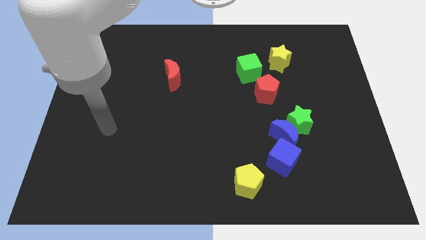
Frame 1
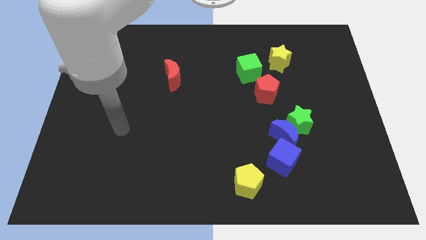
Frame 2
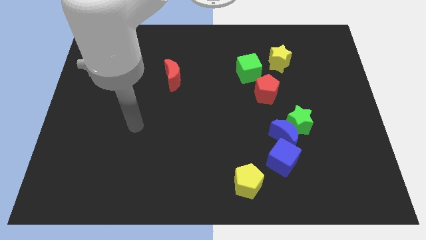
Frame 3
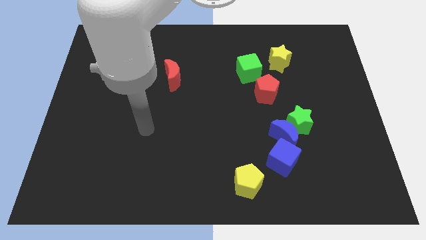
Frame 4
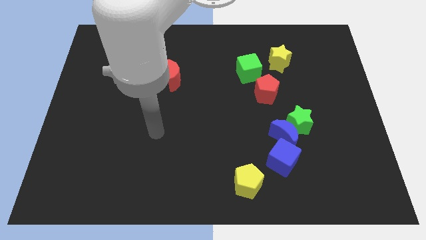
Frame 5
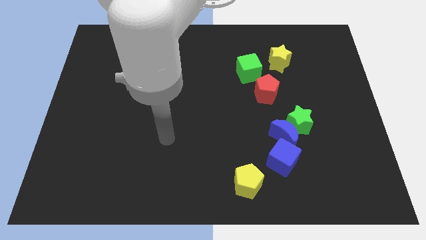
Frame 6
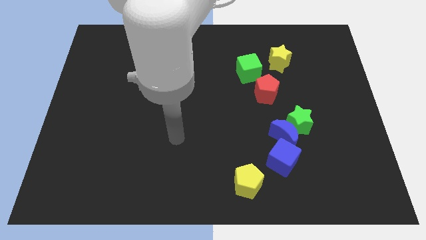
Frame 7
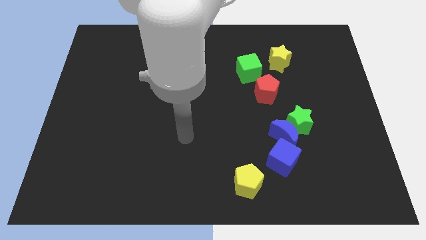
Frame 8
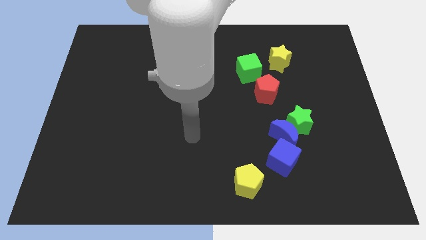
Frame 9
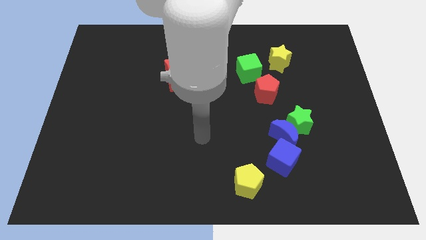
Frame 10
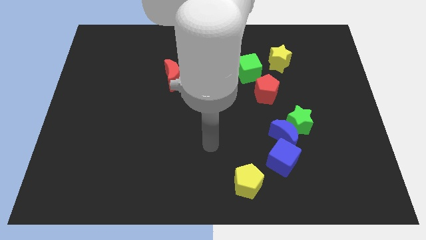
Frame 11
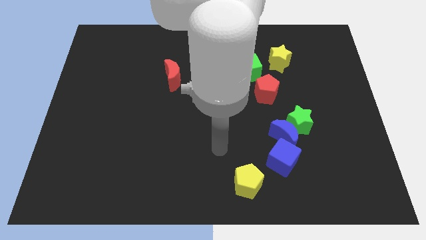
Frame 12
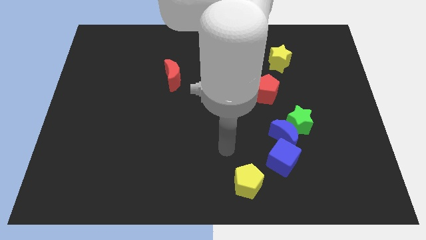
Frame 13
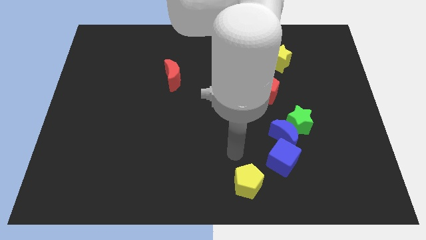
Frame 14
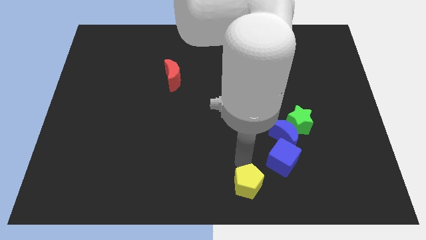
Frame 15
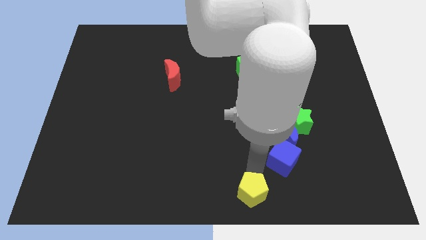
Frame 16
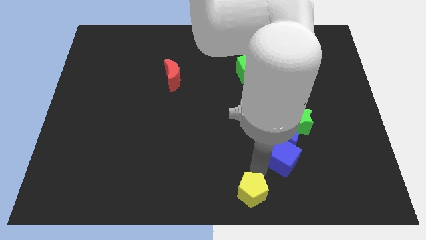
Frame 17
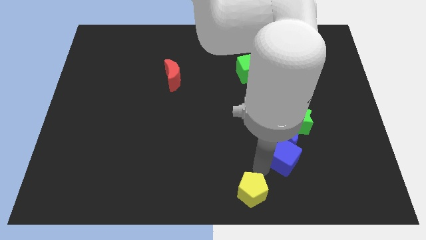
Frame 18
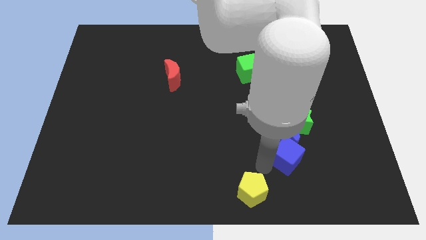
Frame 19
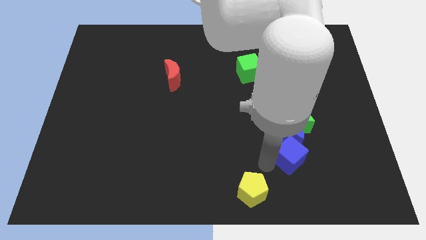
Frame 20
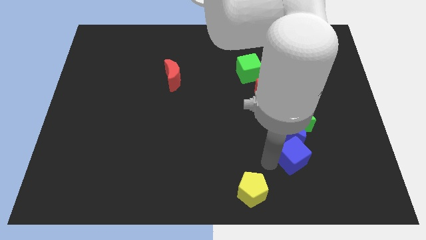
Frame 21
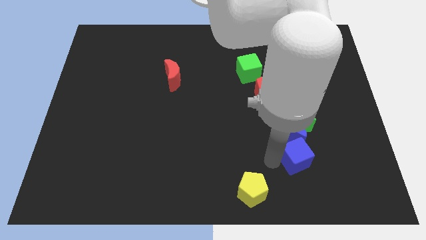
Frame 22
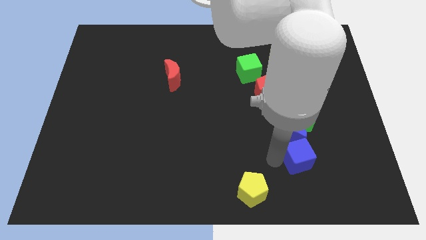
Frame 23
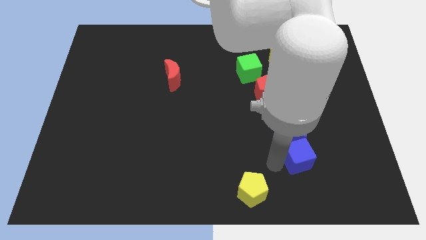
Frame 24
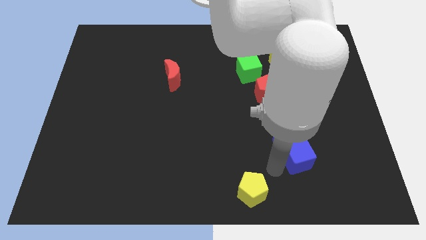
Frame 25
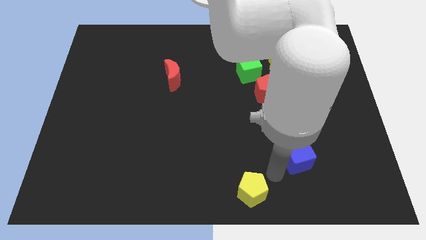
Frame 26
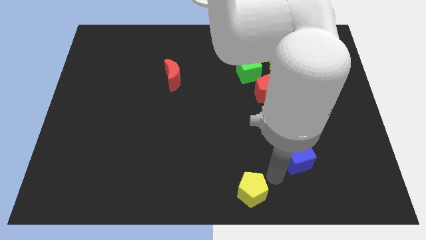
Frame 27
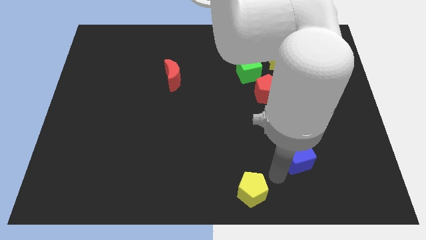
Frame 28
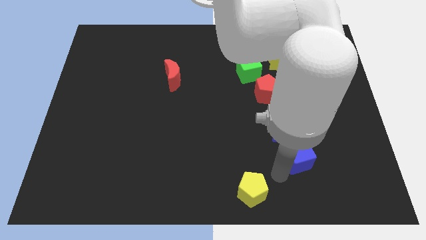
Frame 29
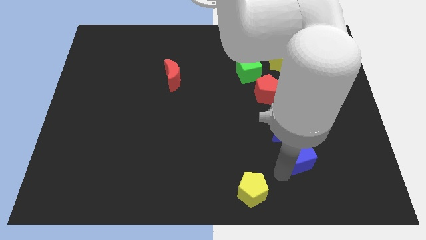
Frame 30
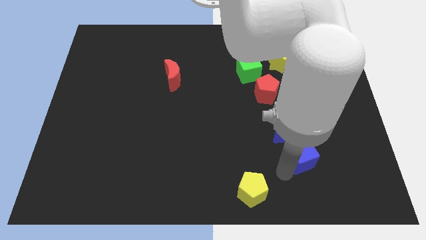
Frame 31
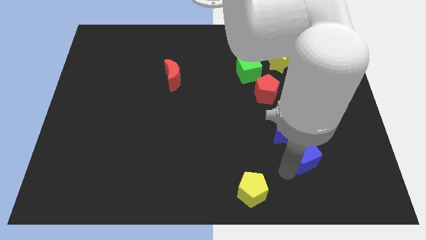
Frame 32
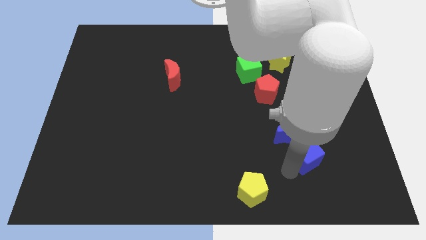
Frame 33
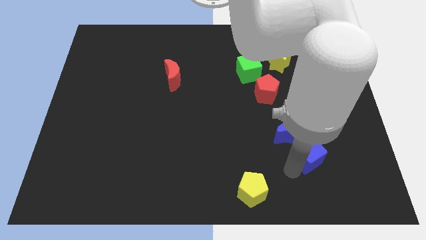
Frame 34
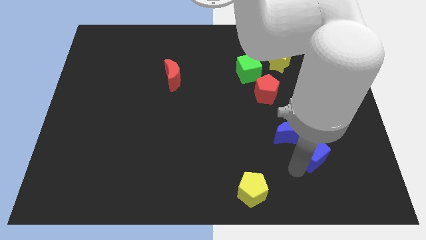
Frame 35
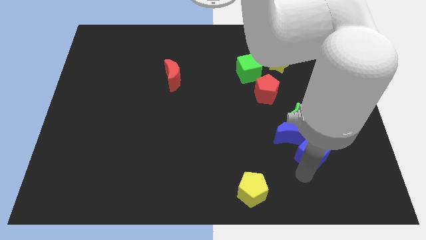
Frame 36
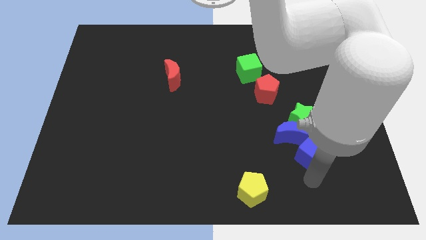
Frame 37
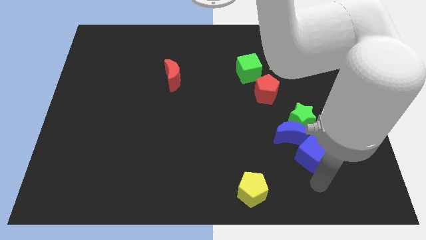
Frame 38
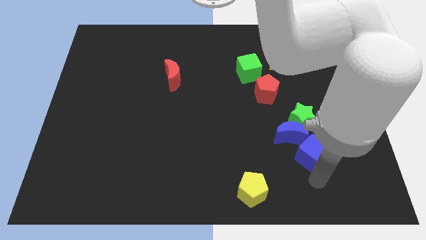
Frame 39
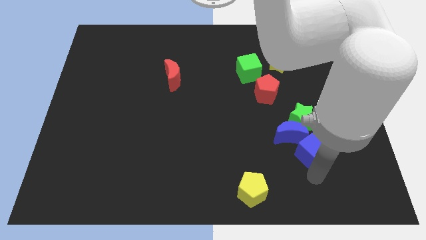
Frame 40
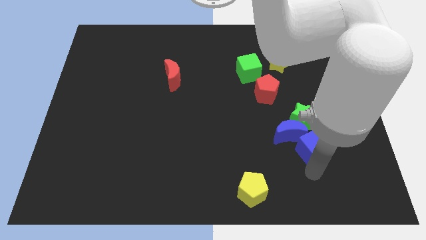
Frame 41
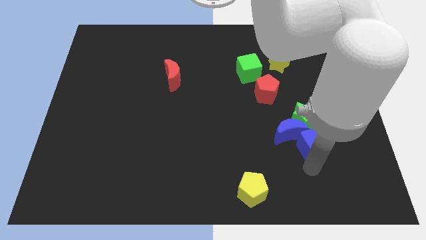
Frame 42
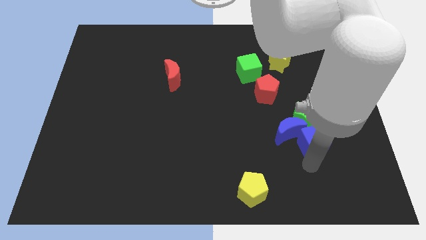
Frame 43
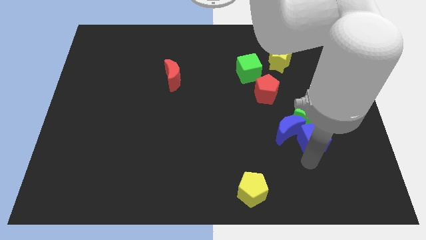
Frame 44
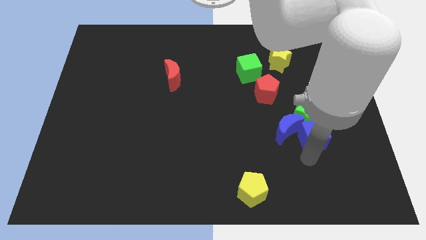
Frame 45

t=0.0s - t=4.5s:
push the blue cube towards the green star

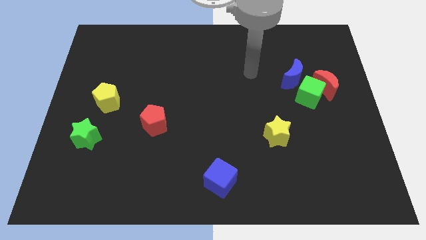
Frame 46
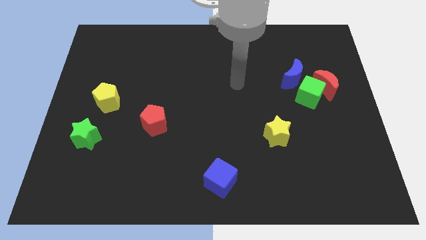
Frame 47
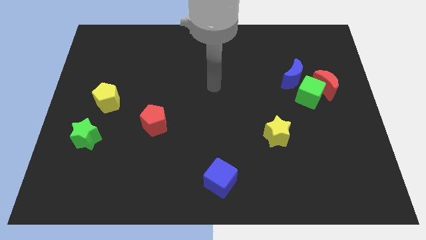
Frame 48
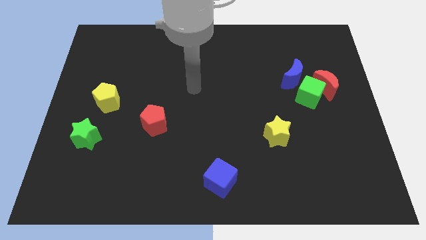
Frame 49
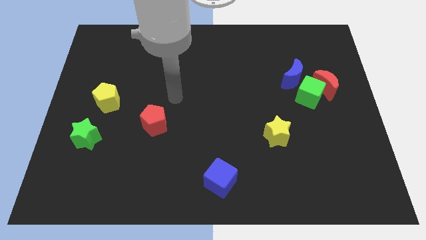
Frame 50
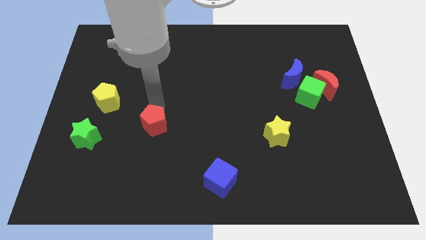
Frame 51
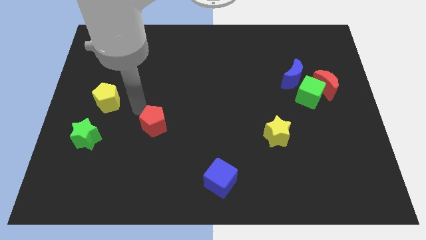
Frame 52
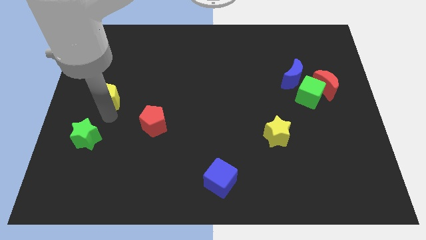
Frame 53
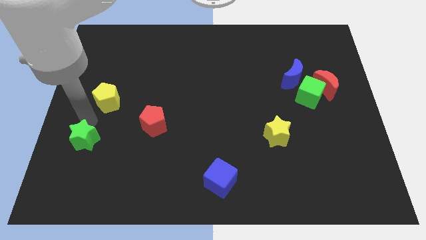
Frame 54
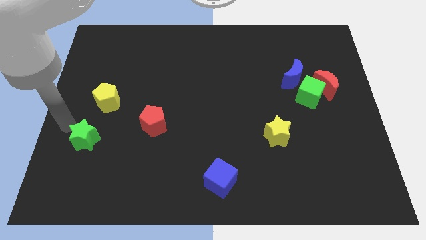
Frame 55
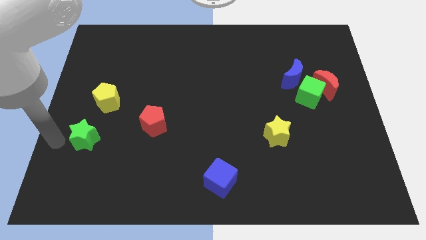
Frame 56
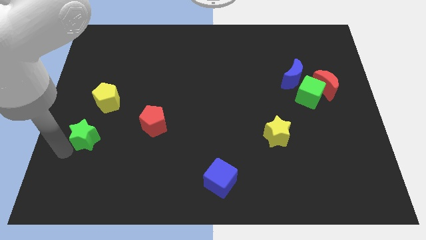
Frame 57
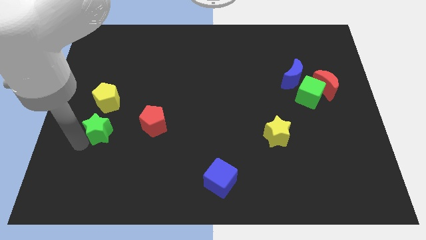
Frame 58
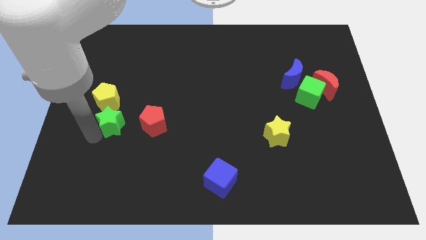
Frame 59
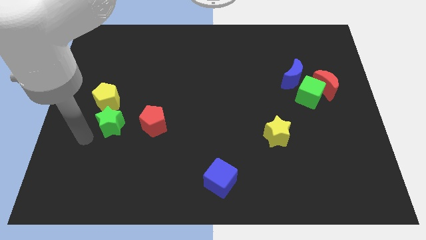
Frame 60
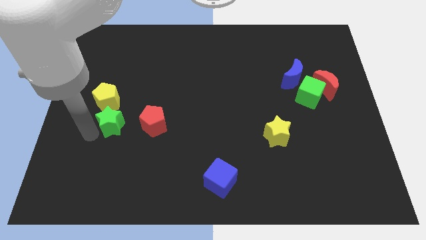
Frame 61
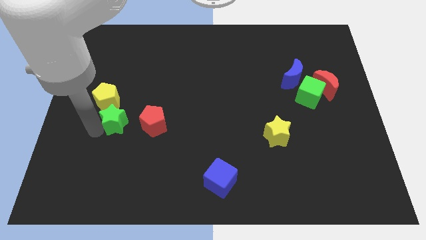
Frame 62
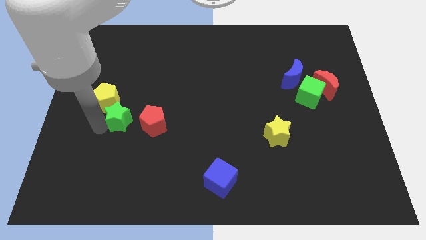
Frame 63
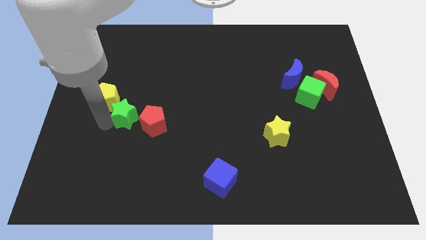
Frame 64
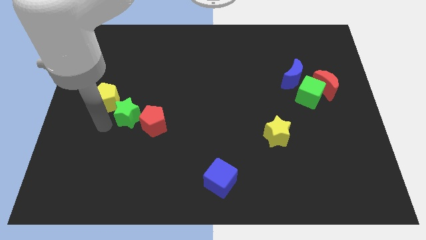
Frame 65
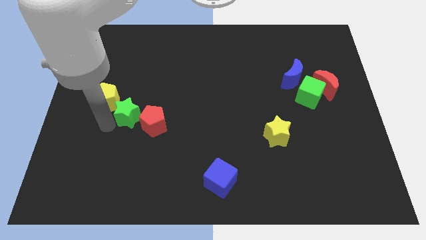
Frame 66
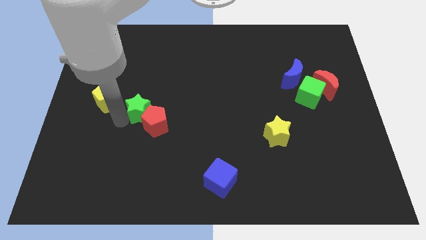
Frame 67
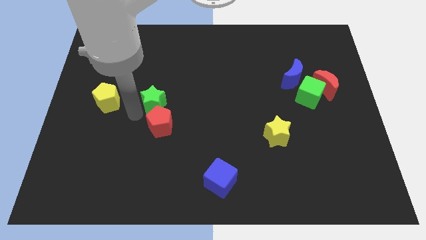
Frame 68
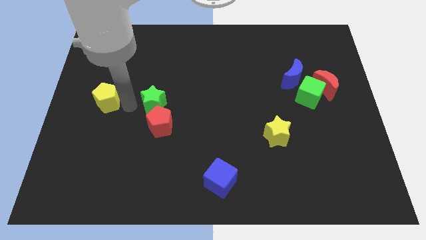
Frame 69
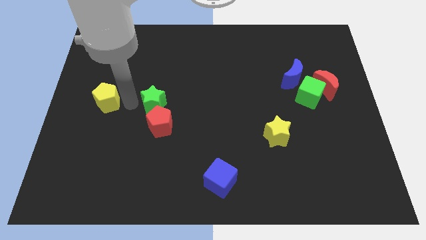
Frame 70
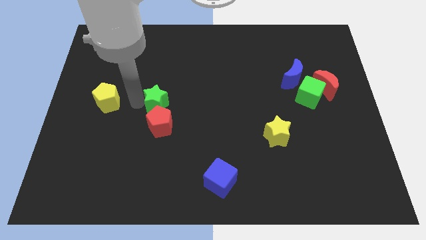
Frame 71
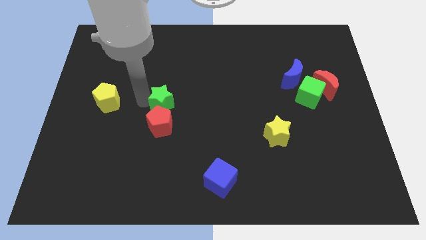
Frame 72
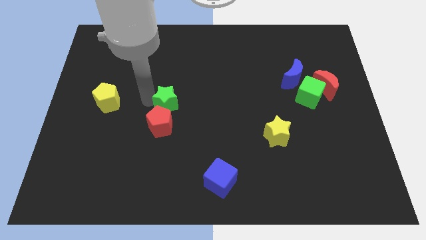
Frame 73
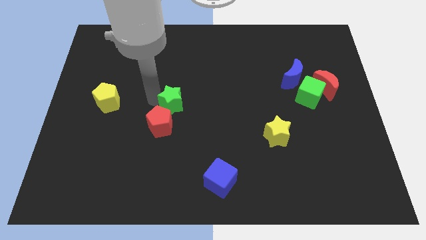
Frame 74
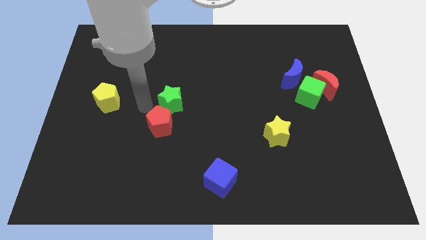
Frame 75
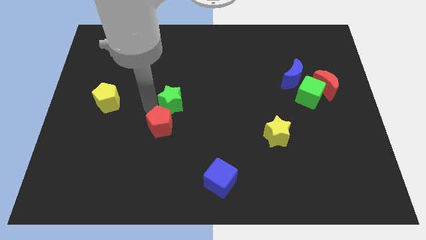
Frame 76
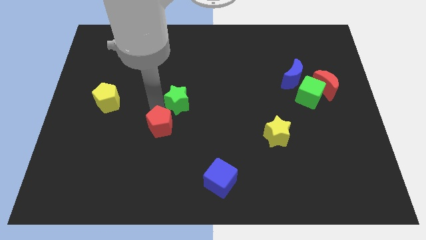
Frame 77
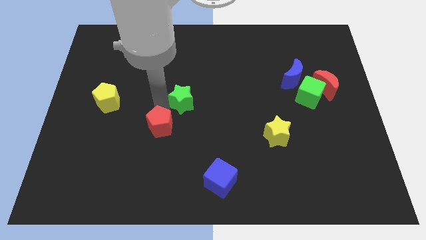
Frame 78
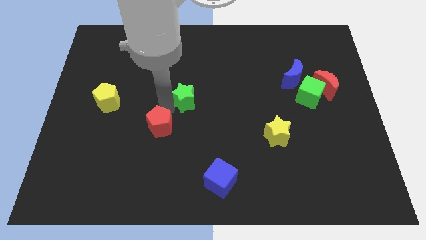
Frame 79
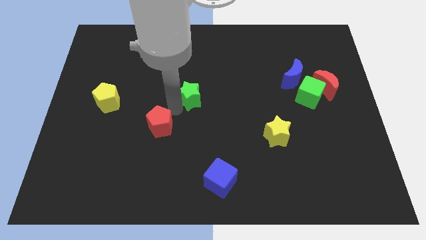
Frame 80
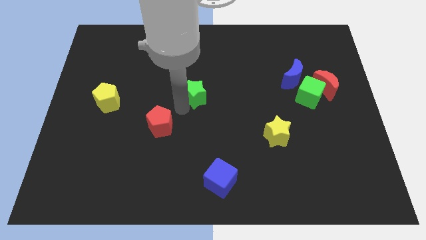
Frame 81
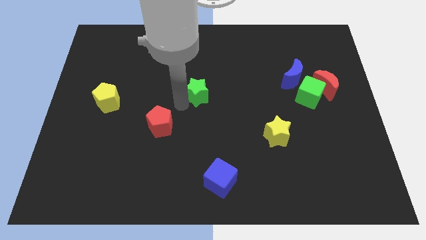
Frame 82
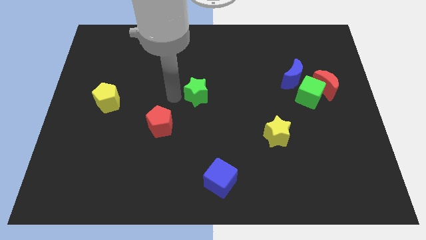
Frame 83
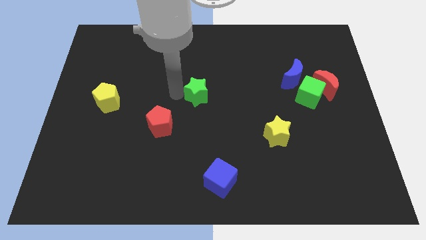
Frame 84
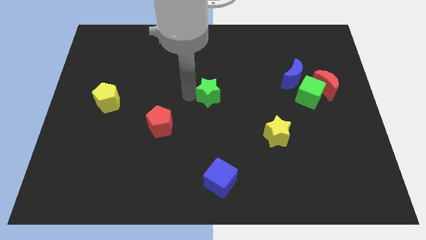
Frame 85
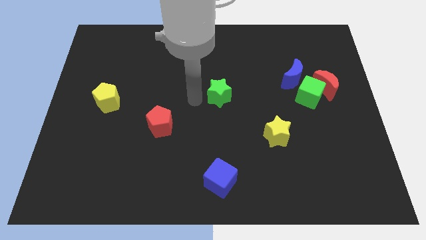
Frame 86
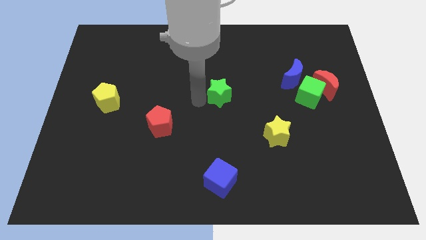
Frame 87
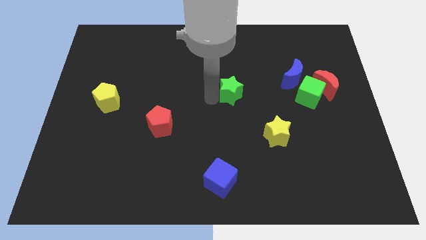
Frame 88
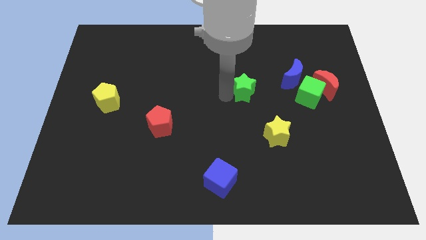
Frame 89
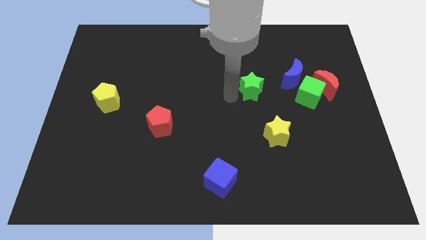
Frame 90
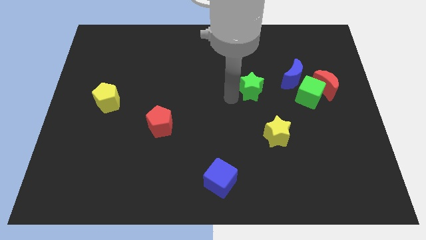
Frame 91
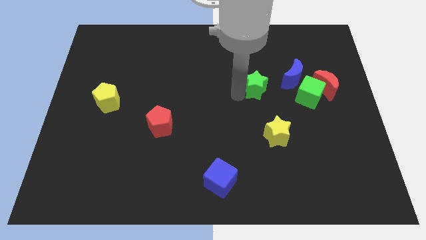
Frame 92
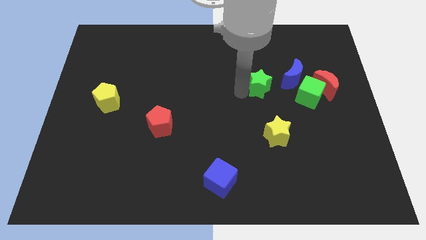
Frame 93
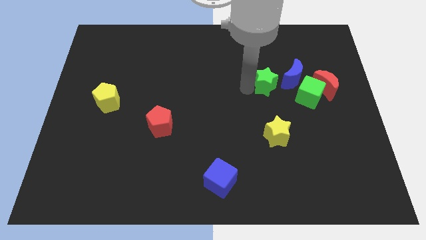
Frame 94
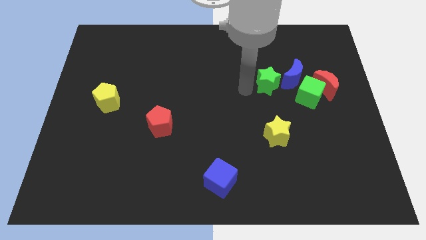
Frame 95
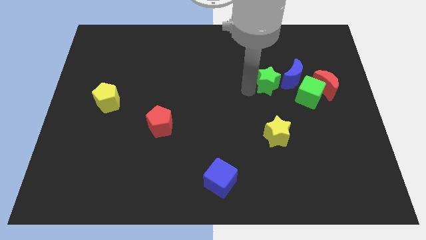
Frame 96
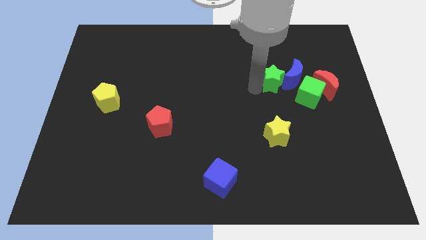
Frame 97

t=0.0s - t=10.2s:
push the green star close to the blue moon
